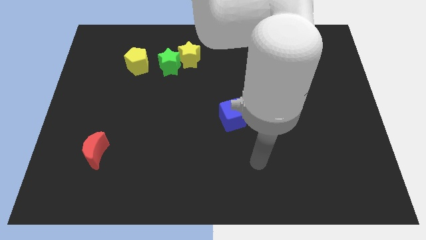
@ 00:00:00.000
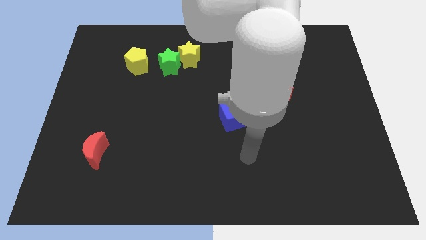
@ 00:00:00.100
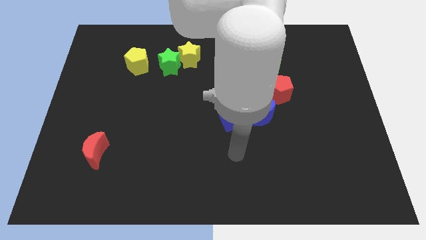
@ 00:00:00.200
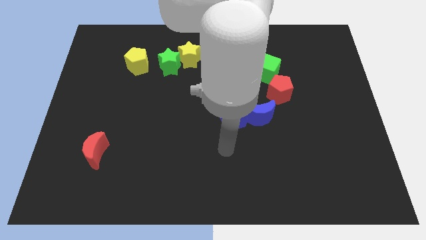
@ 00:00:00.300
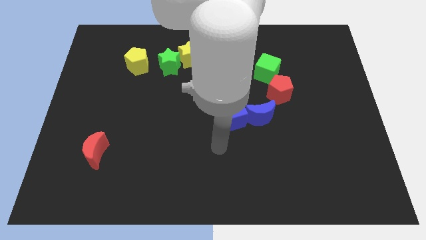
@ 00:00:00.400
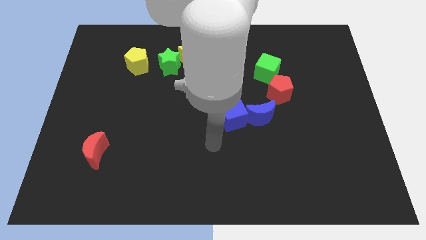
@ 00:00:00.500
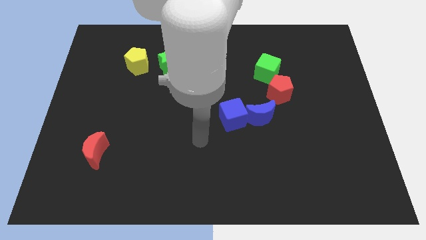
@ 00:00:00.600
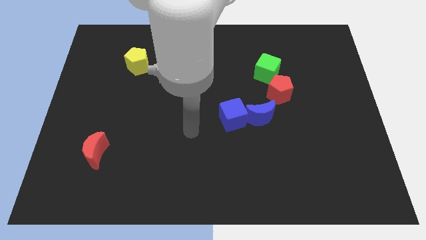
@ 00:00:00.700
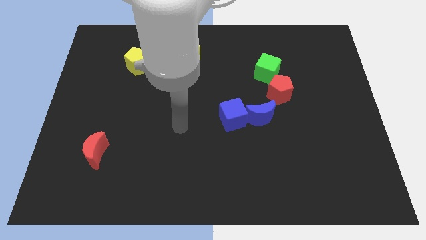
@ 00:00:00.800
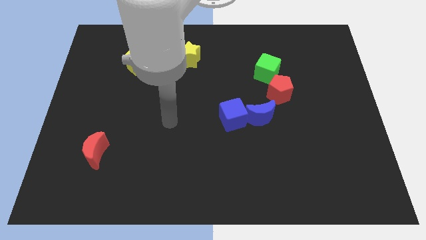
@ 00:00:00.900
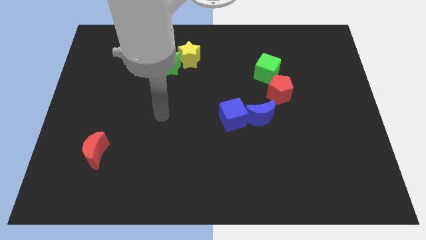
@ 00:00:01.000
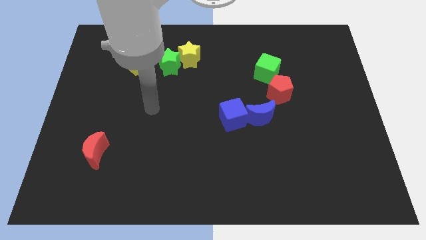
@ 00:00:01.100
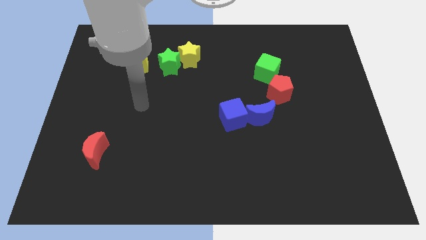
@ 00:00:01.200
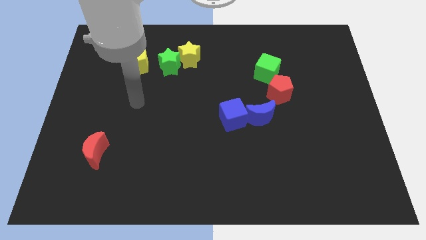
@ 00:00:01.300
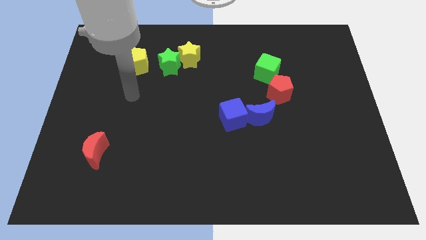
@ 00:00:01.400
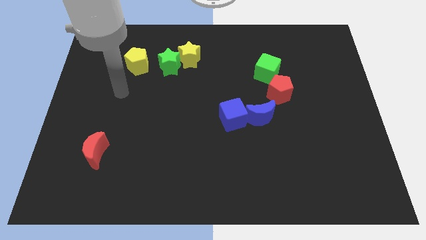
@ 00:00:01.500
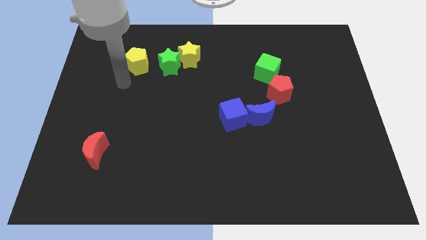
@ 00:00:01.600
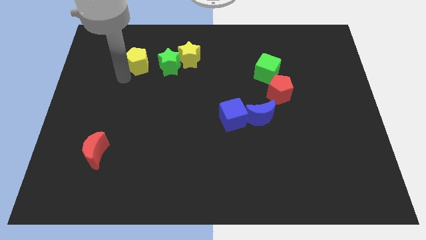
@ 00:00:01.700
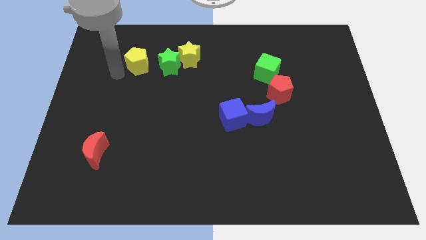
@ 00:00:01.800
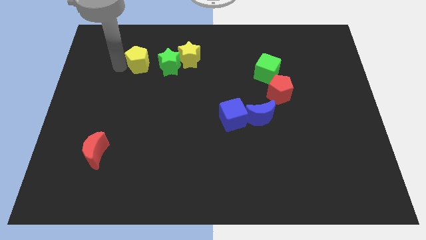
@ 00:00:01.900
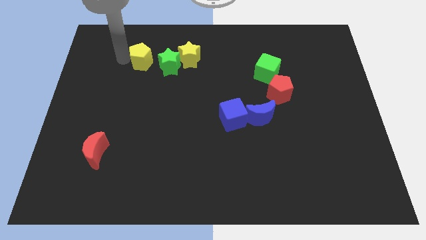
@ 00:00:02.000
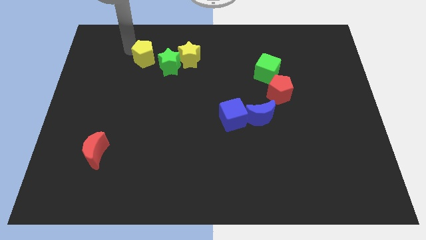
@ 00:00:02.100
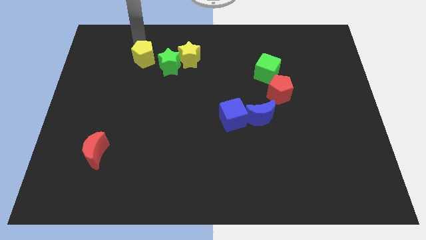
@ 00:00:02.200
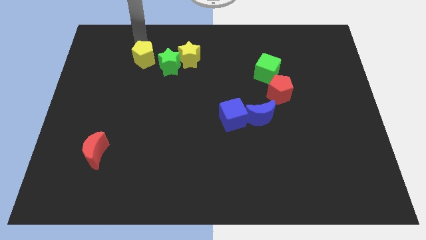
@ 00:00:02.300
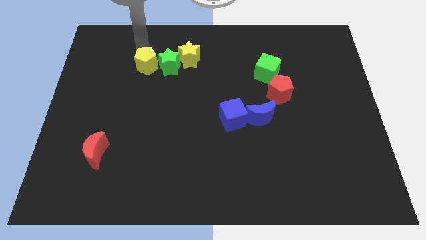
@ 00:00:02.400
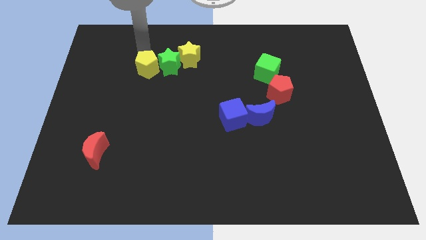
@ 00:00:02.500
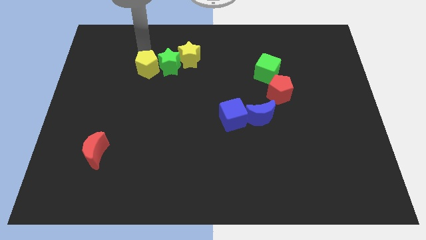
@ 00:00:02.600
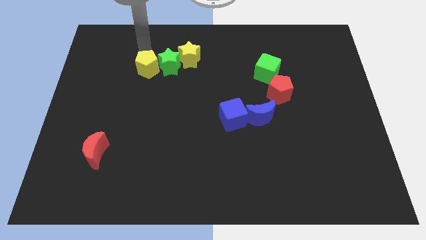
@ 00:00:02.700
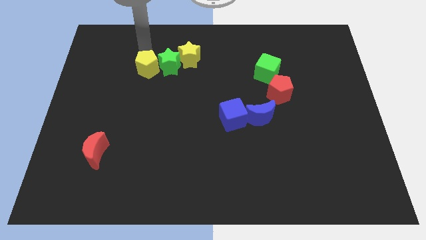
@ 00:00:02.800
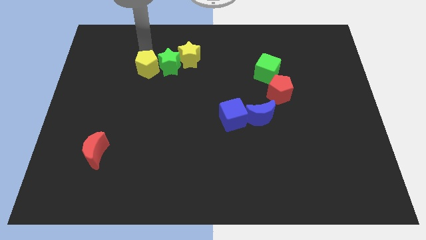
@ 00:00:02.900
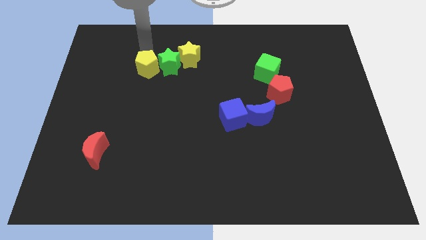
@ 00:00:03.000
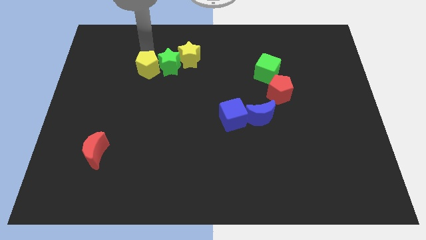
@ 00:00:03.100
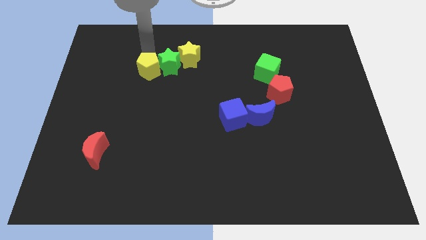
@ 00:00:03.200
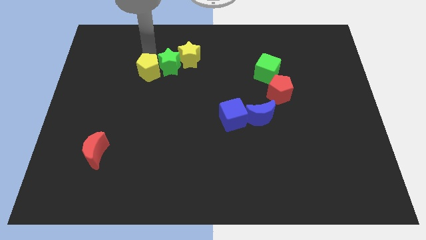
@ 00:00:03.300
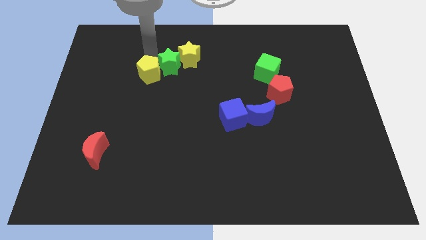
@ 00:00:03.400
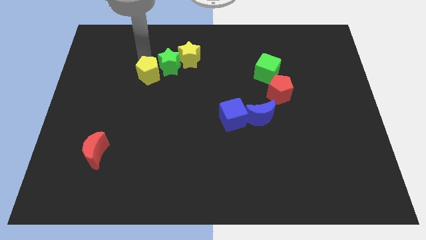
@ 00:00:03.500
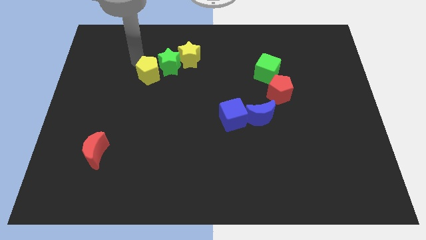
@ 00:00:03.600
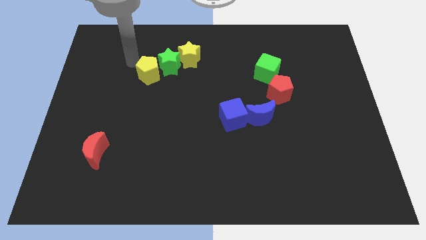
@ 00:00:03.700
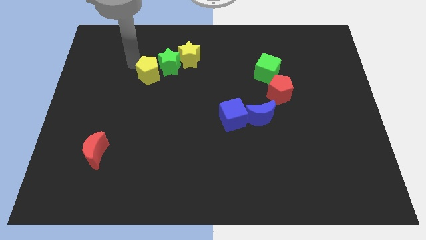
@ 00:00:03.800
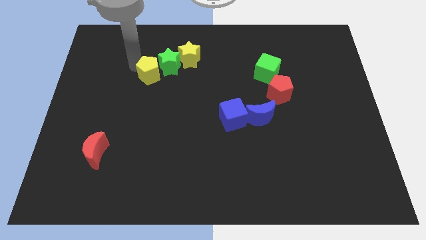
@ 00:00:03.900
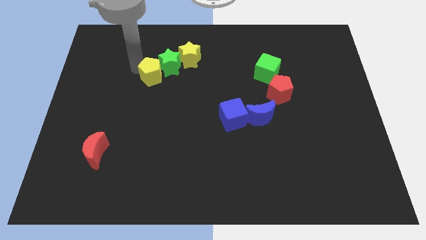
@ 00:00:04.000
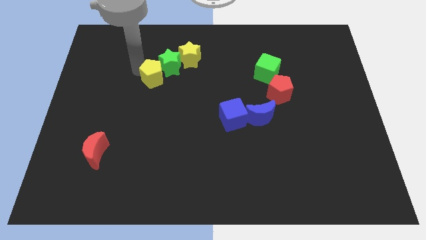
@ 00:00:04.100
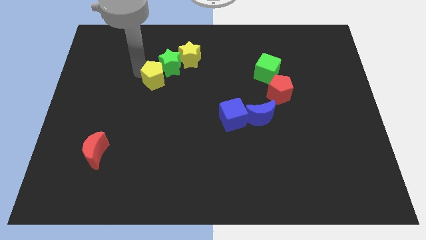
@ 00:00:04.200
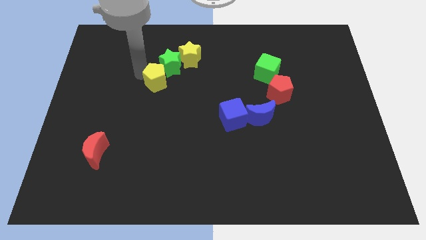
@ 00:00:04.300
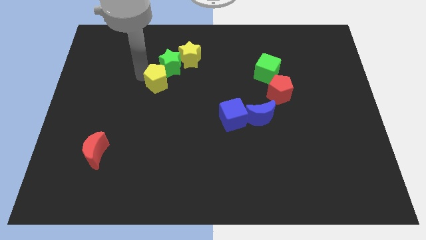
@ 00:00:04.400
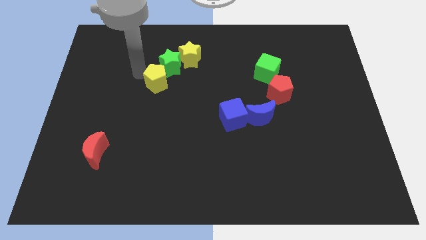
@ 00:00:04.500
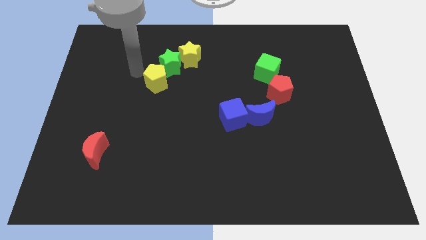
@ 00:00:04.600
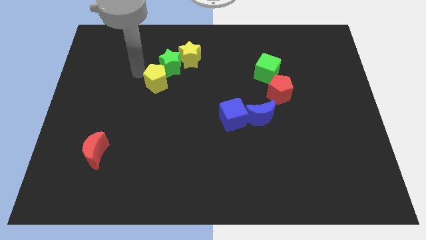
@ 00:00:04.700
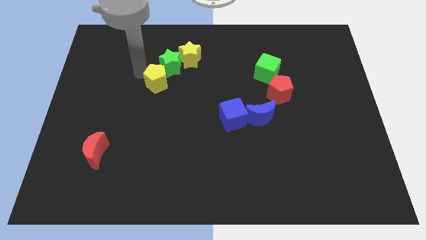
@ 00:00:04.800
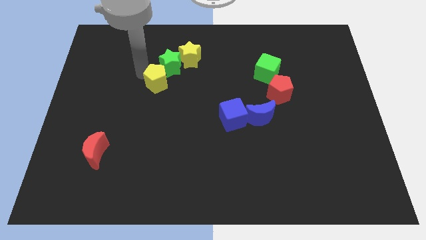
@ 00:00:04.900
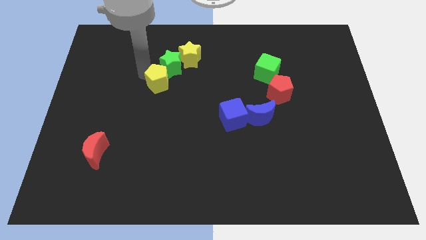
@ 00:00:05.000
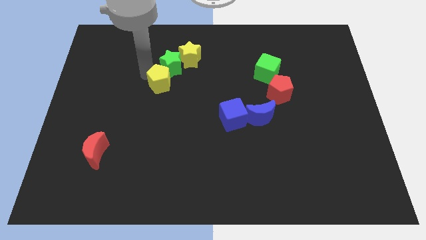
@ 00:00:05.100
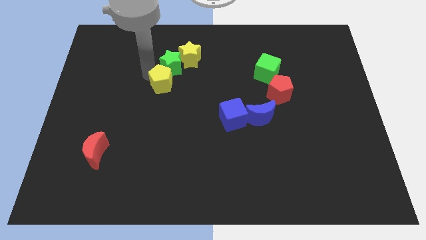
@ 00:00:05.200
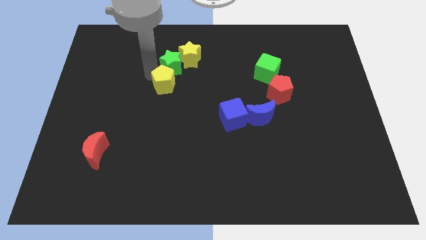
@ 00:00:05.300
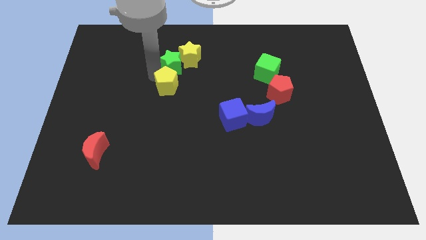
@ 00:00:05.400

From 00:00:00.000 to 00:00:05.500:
slide the yellow pentagon to the center of the board

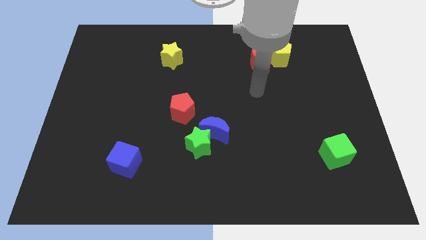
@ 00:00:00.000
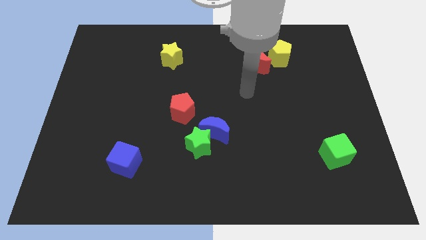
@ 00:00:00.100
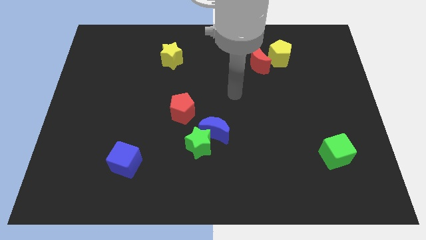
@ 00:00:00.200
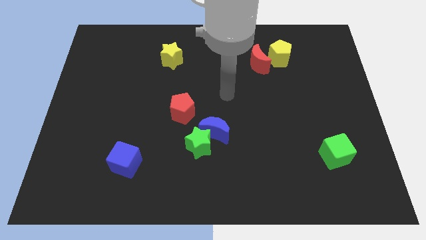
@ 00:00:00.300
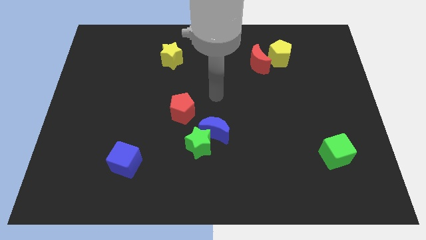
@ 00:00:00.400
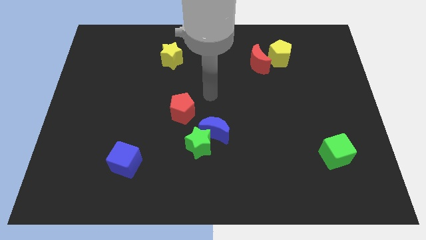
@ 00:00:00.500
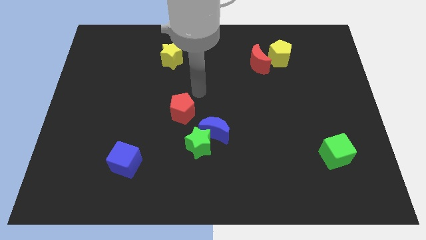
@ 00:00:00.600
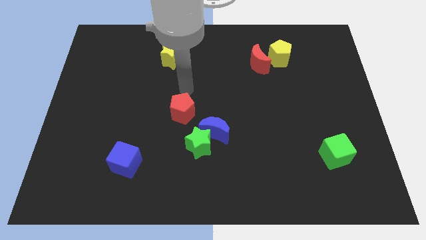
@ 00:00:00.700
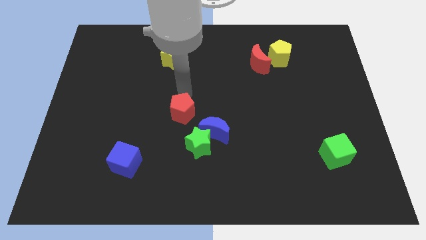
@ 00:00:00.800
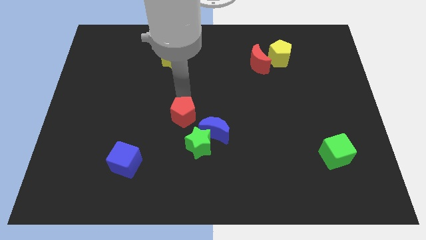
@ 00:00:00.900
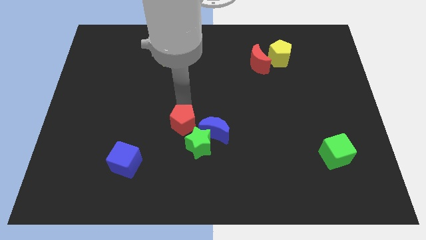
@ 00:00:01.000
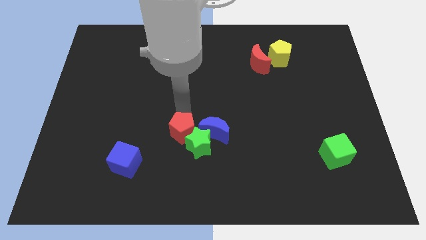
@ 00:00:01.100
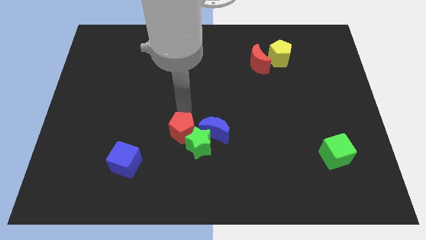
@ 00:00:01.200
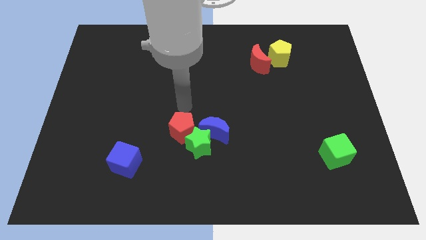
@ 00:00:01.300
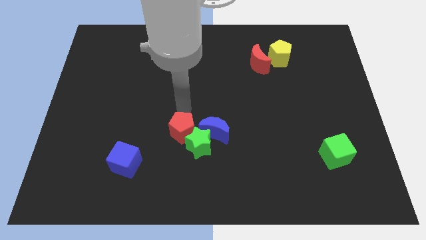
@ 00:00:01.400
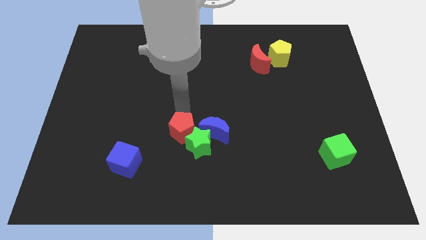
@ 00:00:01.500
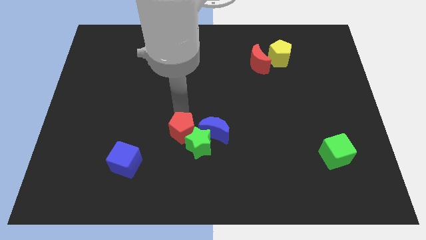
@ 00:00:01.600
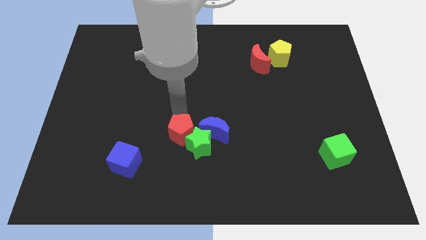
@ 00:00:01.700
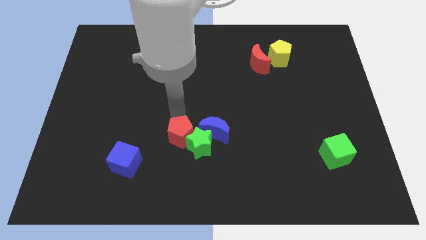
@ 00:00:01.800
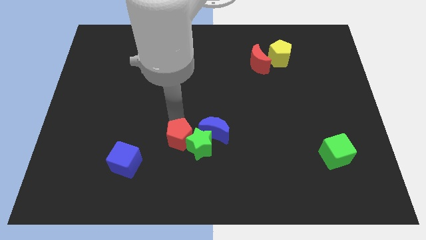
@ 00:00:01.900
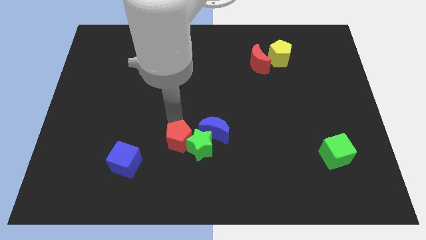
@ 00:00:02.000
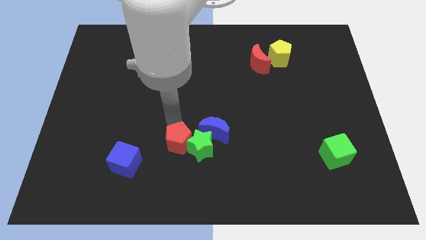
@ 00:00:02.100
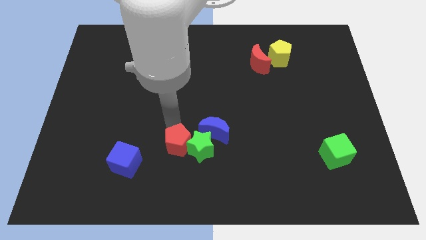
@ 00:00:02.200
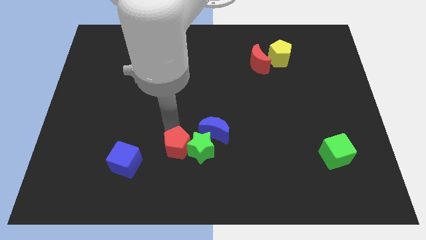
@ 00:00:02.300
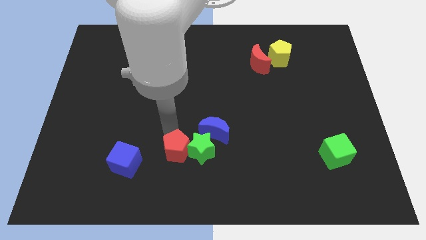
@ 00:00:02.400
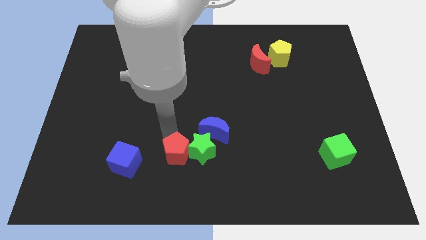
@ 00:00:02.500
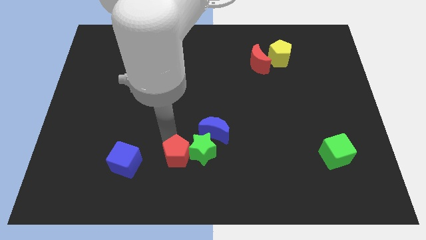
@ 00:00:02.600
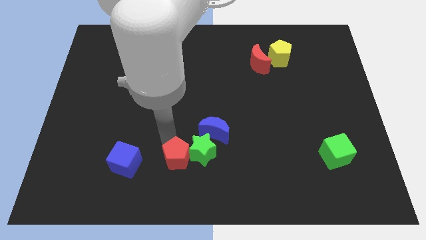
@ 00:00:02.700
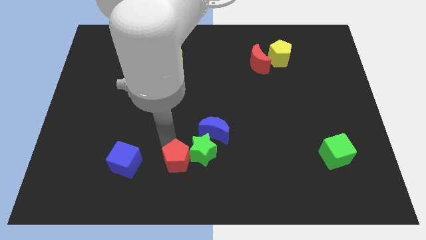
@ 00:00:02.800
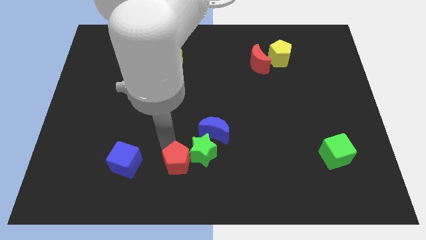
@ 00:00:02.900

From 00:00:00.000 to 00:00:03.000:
push the red pentagon to the bottom
